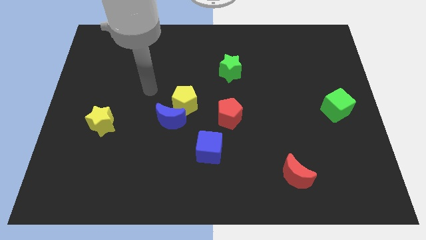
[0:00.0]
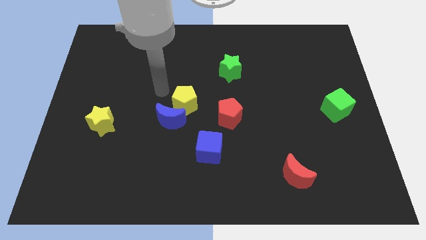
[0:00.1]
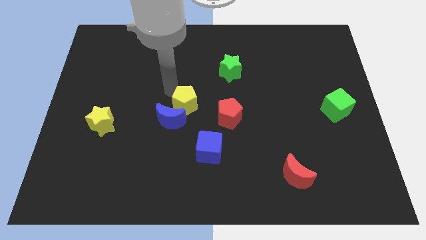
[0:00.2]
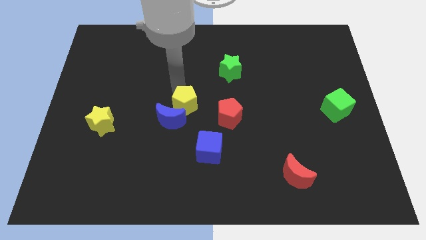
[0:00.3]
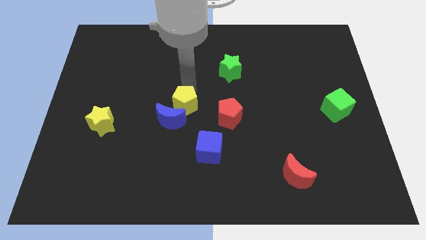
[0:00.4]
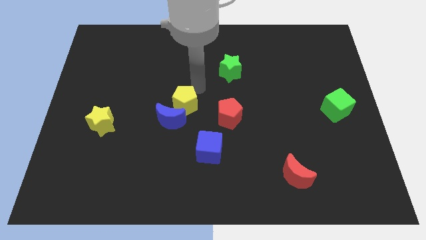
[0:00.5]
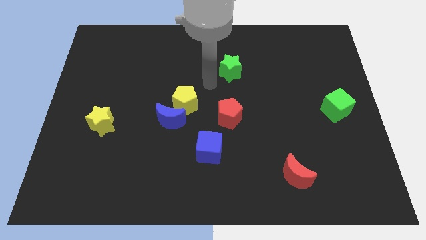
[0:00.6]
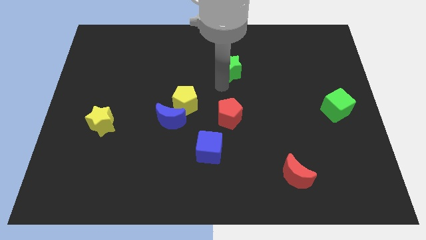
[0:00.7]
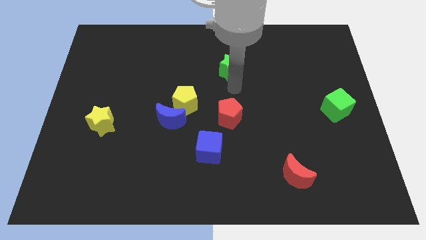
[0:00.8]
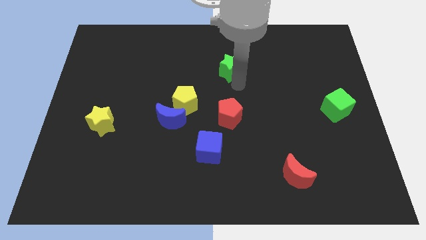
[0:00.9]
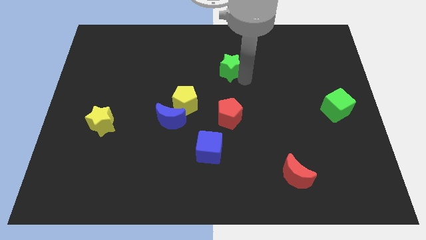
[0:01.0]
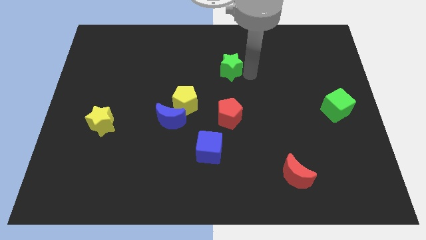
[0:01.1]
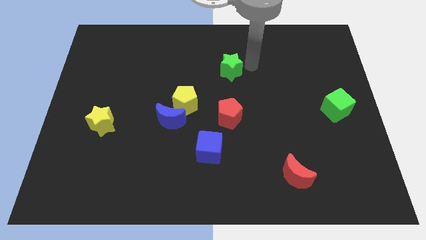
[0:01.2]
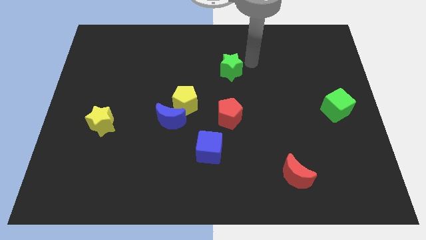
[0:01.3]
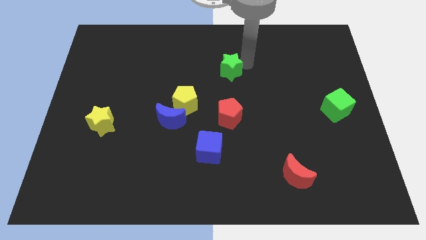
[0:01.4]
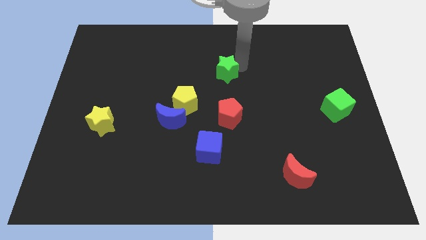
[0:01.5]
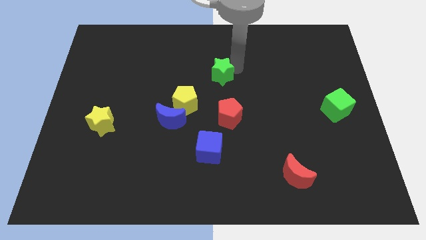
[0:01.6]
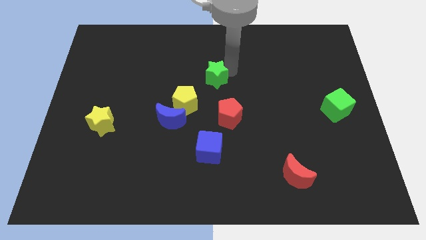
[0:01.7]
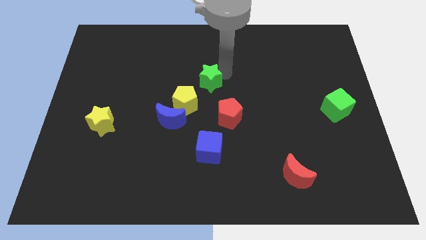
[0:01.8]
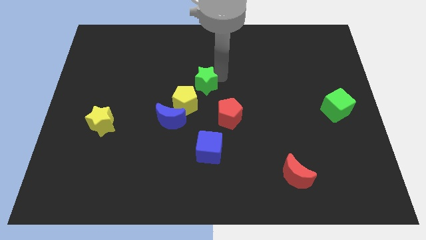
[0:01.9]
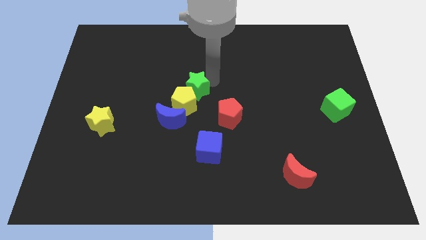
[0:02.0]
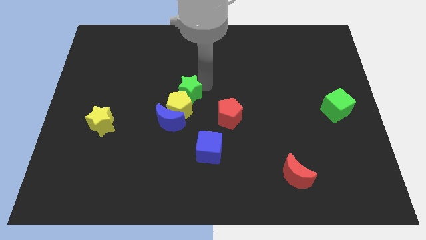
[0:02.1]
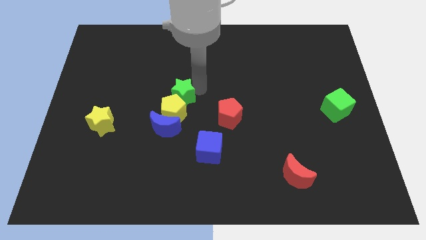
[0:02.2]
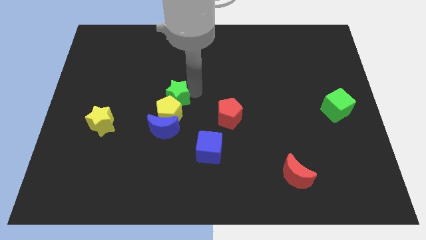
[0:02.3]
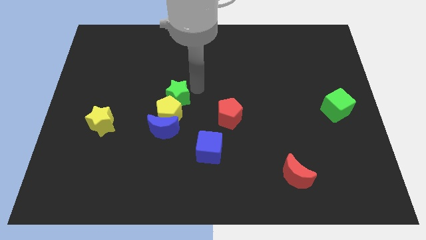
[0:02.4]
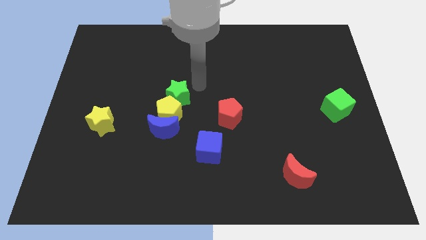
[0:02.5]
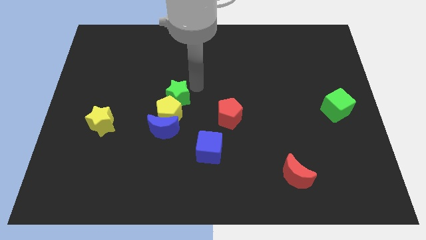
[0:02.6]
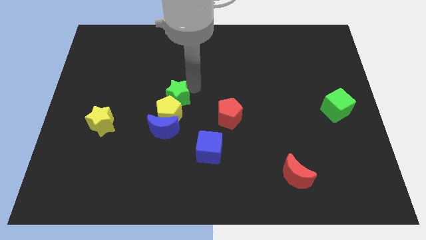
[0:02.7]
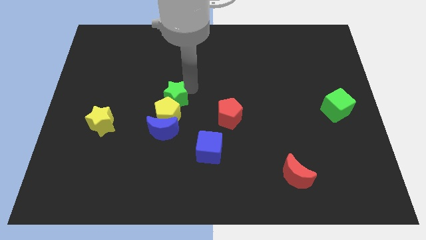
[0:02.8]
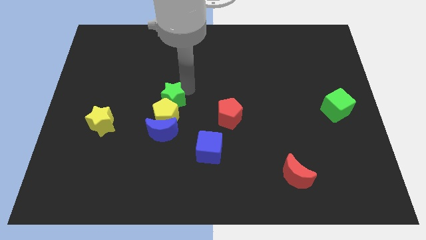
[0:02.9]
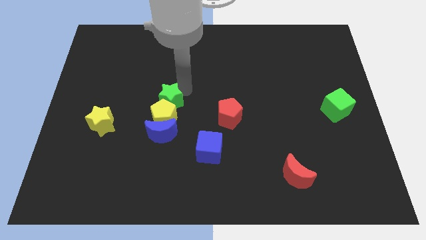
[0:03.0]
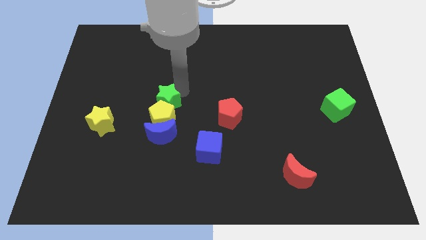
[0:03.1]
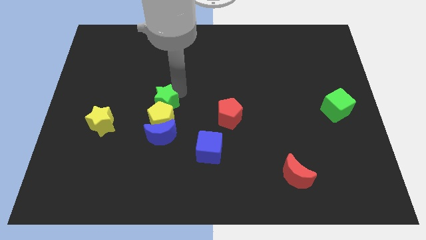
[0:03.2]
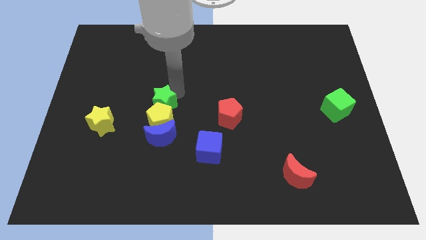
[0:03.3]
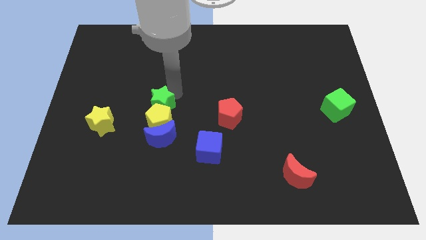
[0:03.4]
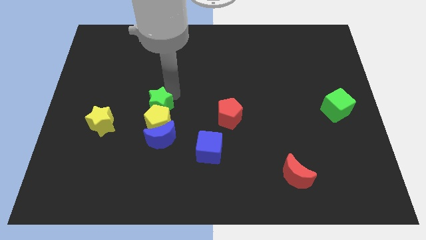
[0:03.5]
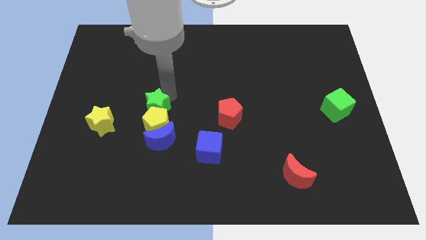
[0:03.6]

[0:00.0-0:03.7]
move the green star down and to the left

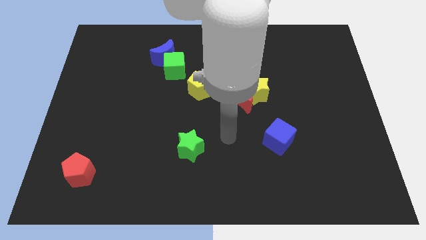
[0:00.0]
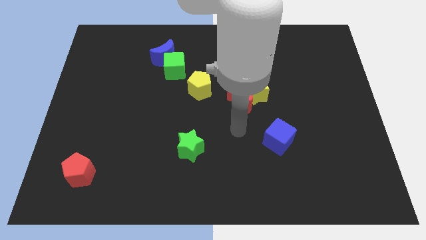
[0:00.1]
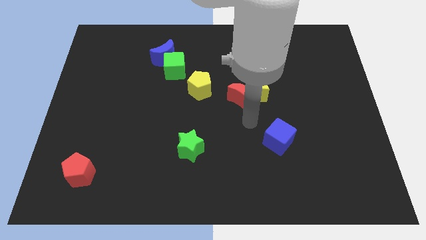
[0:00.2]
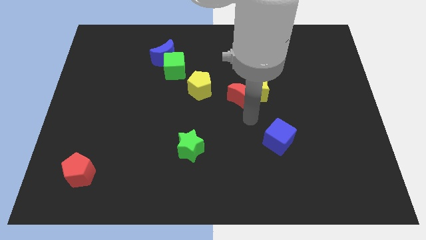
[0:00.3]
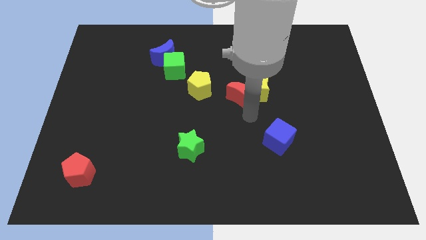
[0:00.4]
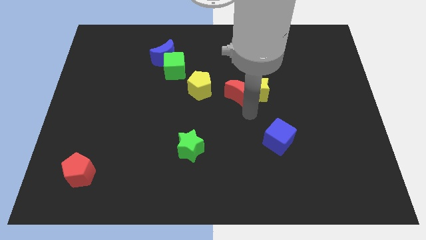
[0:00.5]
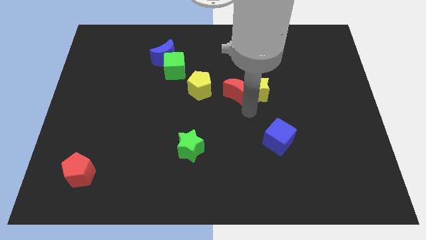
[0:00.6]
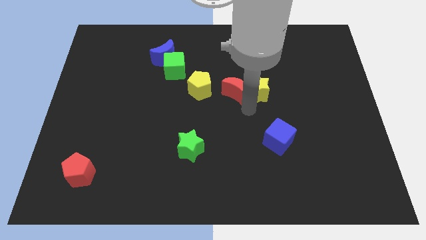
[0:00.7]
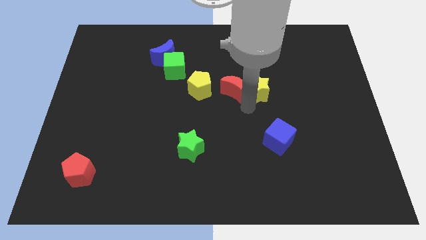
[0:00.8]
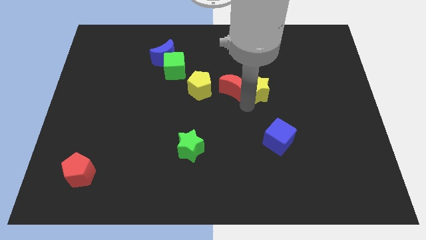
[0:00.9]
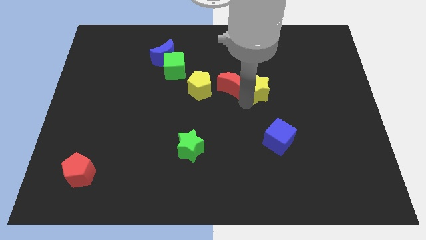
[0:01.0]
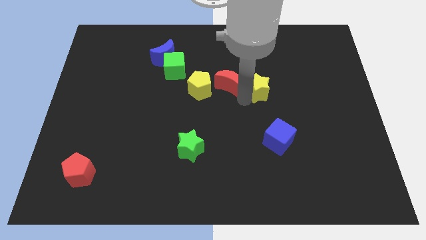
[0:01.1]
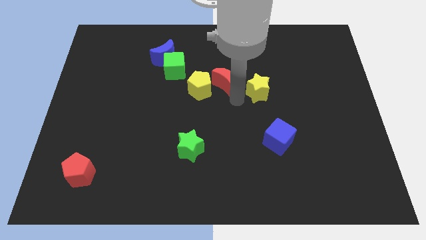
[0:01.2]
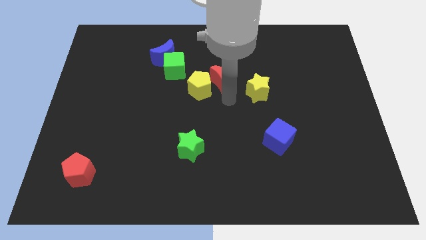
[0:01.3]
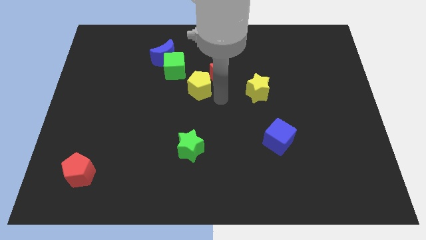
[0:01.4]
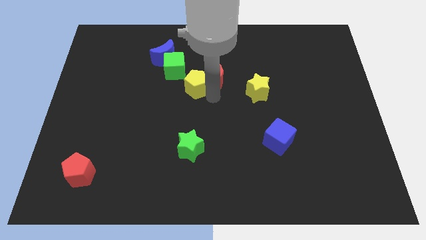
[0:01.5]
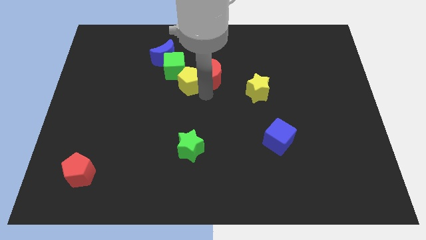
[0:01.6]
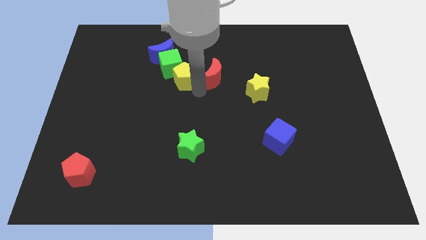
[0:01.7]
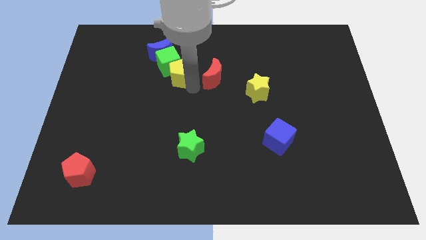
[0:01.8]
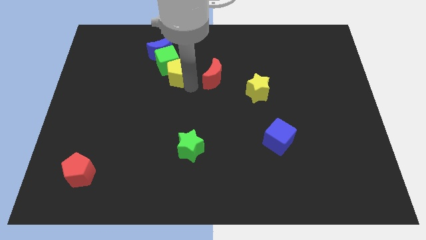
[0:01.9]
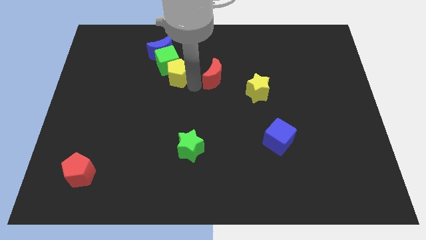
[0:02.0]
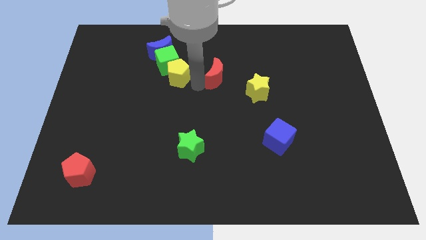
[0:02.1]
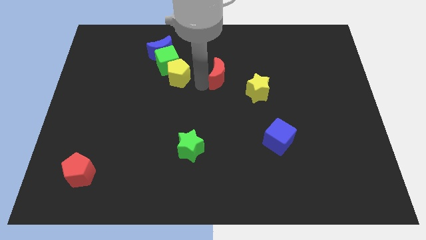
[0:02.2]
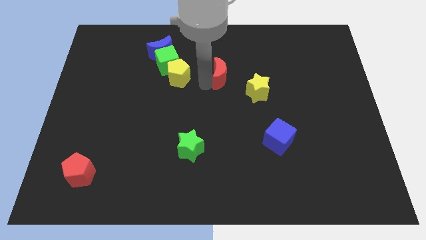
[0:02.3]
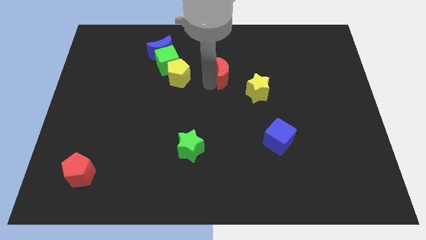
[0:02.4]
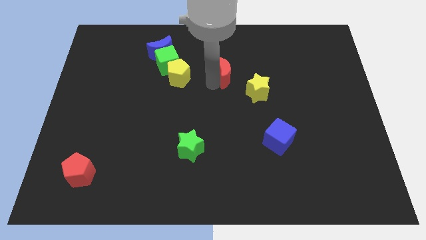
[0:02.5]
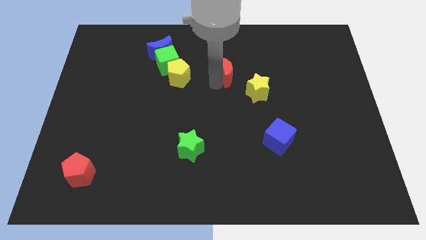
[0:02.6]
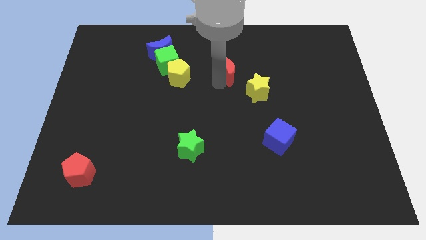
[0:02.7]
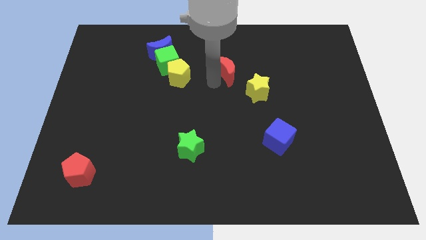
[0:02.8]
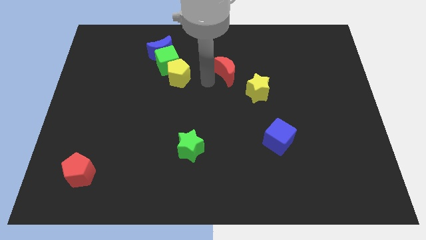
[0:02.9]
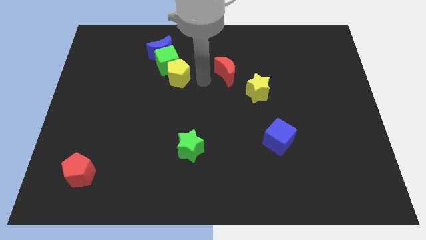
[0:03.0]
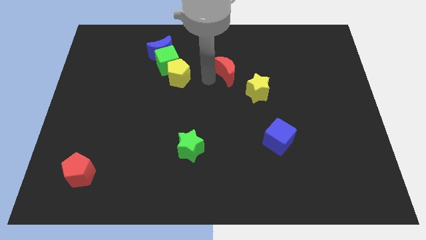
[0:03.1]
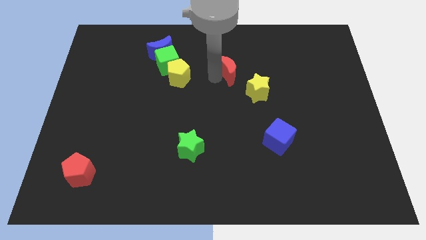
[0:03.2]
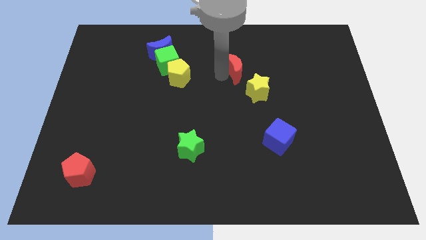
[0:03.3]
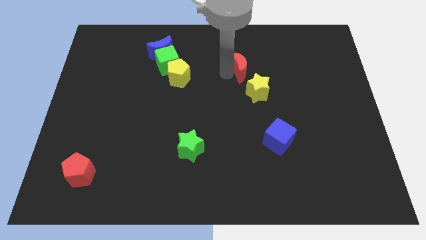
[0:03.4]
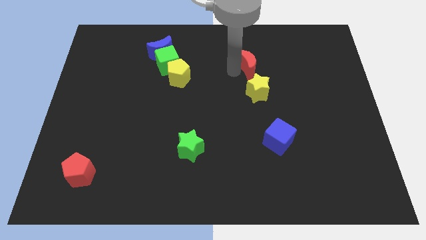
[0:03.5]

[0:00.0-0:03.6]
push the red moon upwards and right somewhat

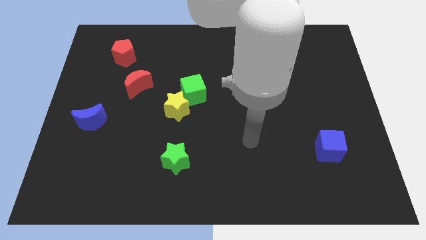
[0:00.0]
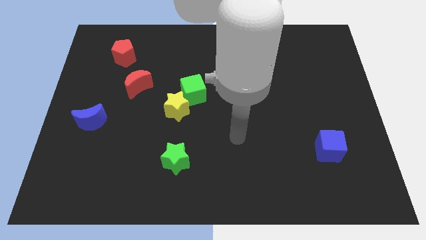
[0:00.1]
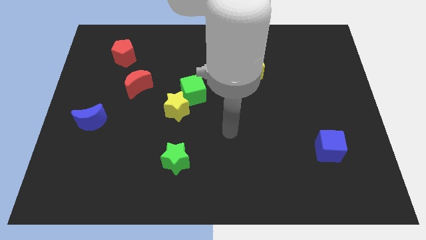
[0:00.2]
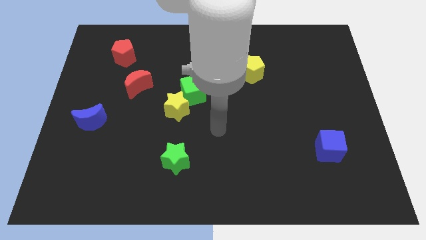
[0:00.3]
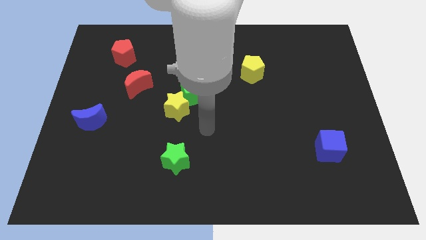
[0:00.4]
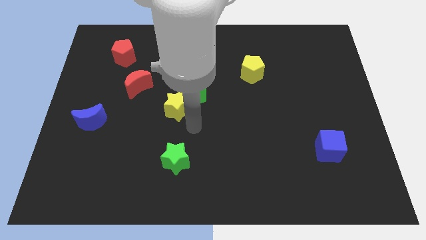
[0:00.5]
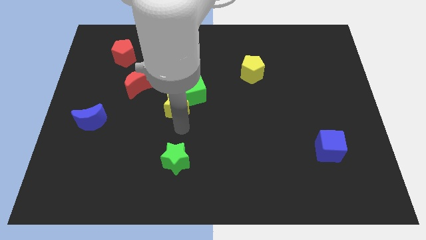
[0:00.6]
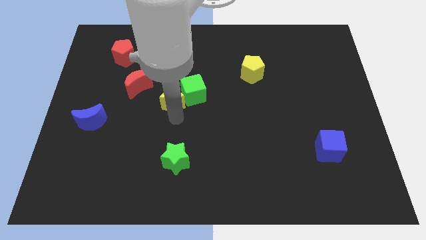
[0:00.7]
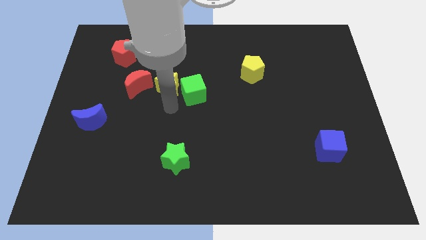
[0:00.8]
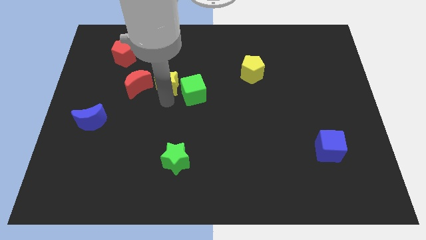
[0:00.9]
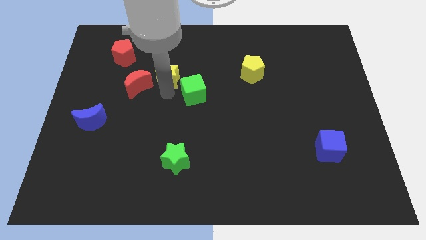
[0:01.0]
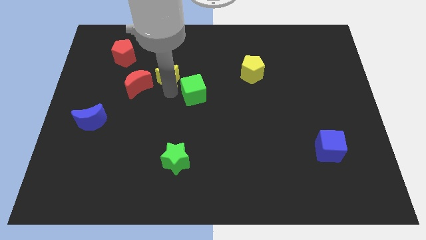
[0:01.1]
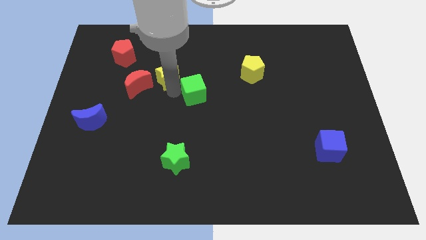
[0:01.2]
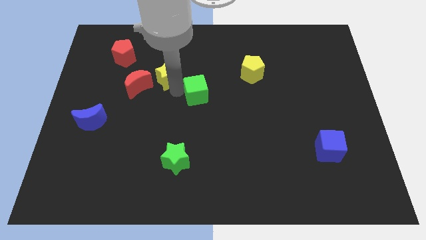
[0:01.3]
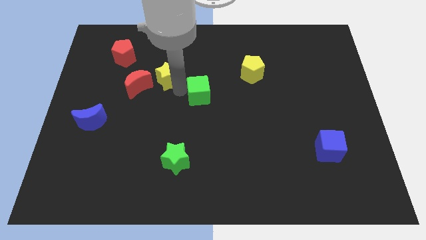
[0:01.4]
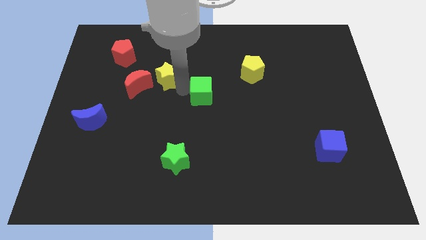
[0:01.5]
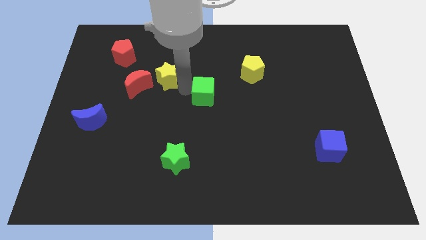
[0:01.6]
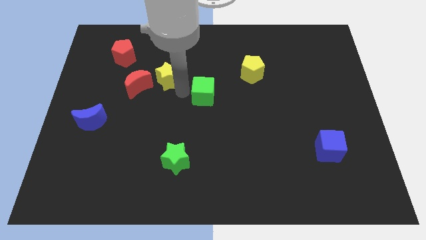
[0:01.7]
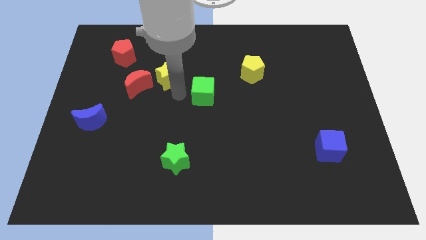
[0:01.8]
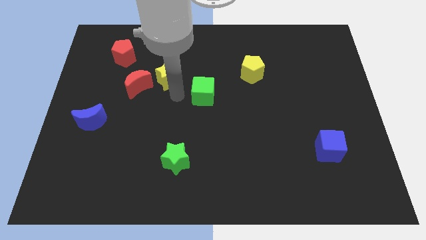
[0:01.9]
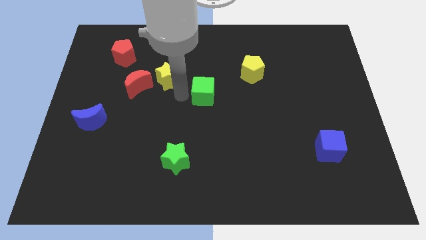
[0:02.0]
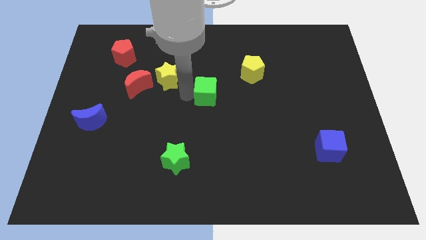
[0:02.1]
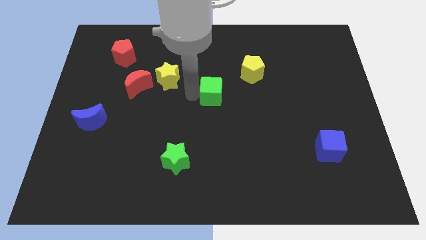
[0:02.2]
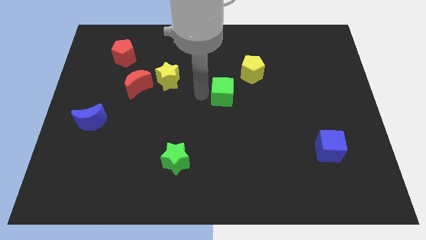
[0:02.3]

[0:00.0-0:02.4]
slide the green cube right a bit
